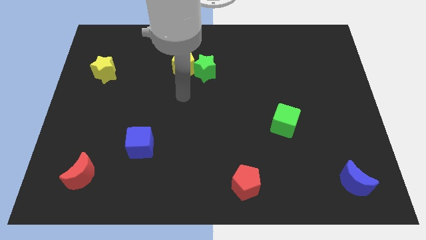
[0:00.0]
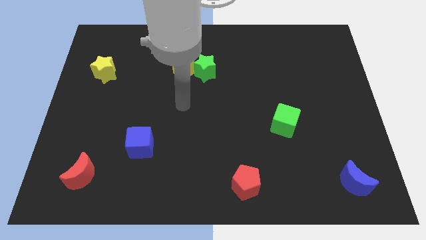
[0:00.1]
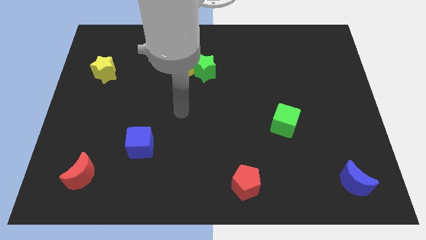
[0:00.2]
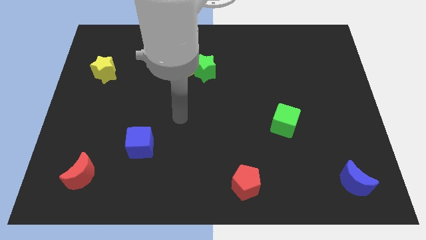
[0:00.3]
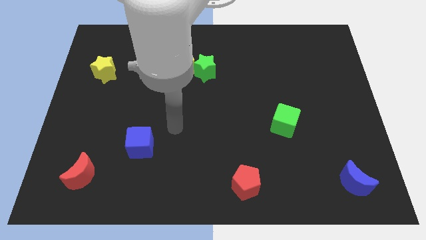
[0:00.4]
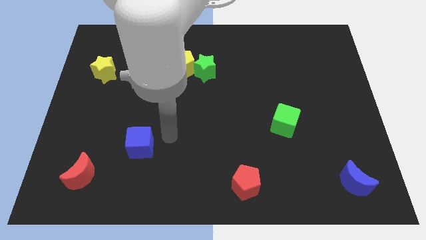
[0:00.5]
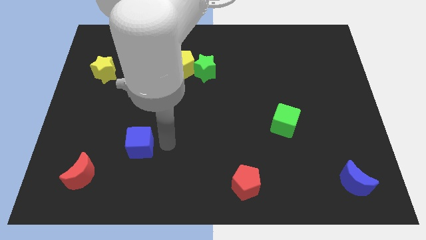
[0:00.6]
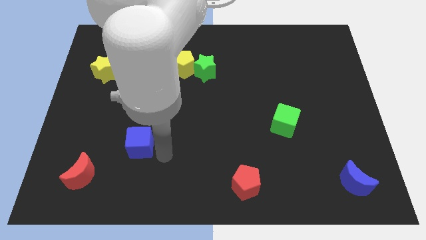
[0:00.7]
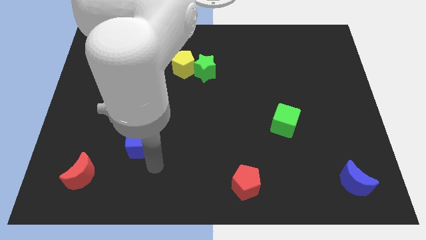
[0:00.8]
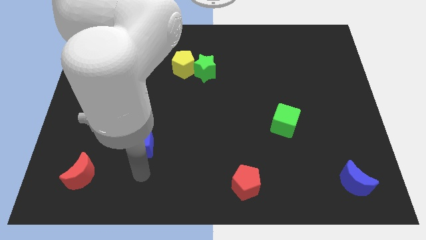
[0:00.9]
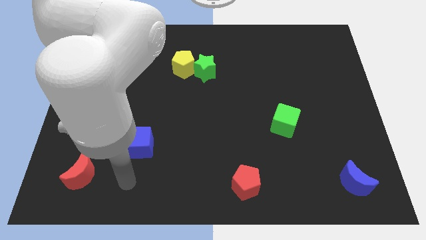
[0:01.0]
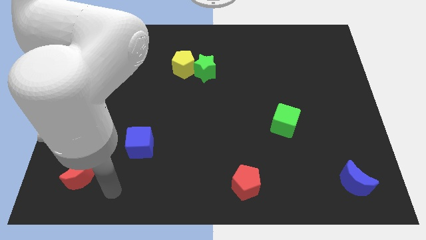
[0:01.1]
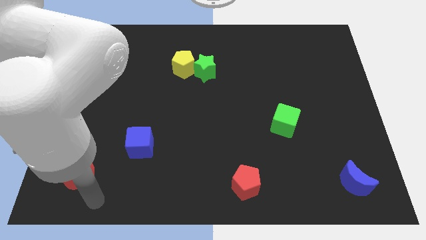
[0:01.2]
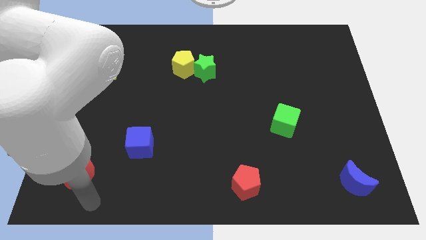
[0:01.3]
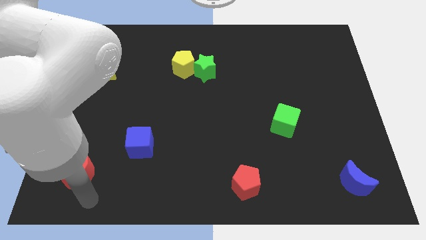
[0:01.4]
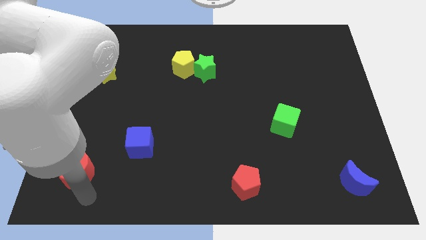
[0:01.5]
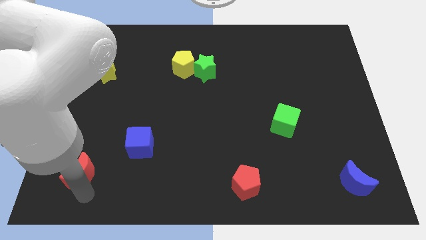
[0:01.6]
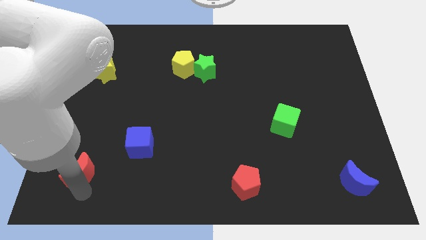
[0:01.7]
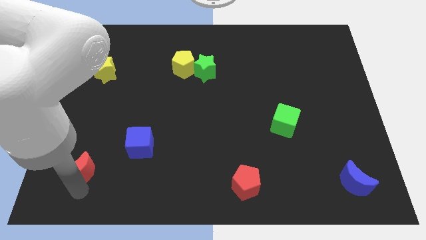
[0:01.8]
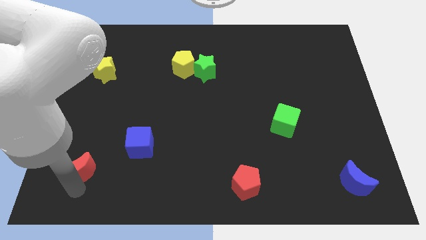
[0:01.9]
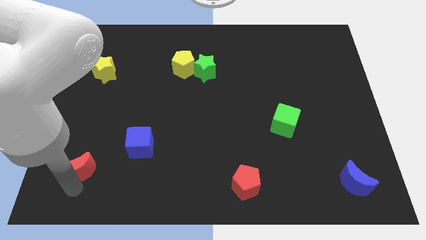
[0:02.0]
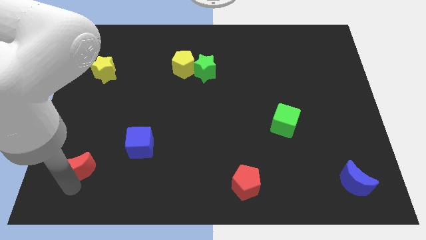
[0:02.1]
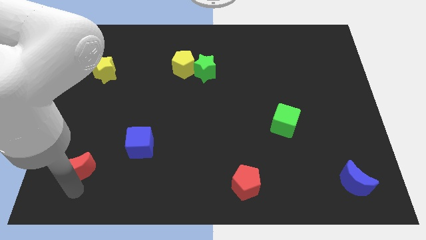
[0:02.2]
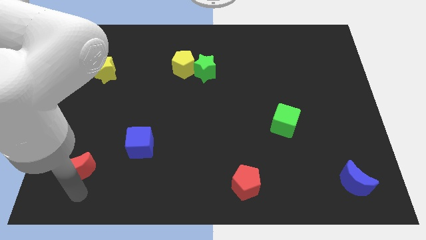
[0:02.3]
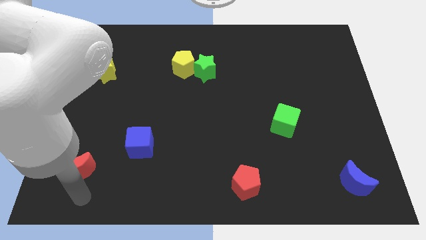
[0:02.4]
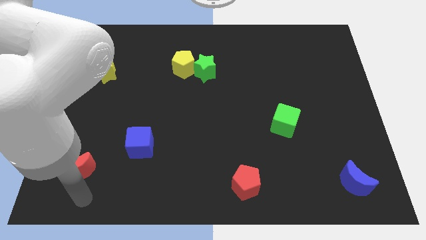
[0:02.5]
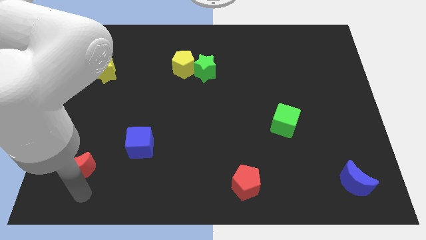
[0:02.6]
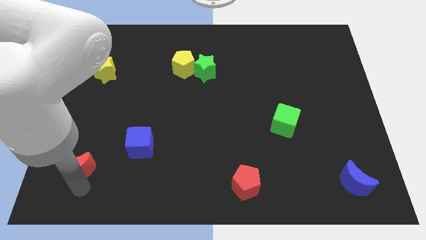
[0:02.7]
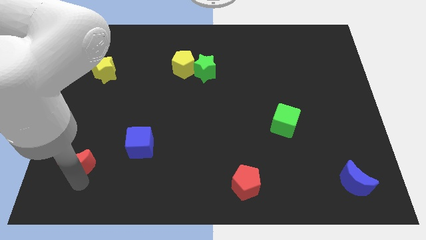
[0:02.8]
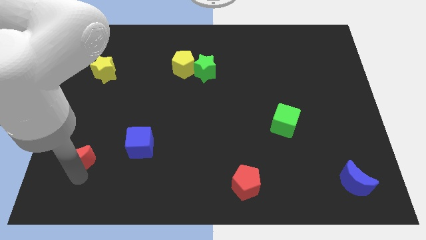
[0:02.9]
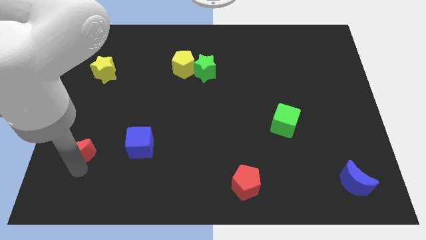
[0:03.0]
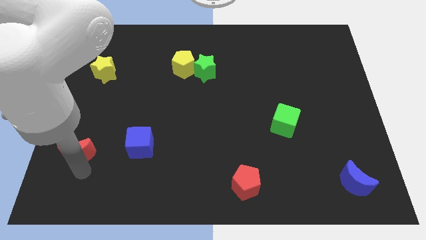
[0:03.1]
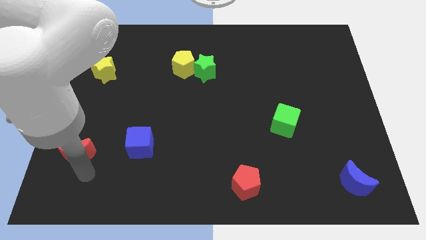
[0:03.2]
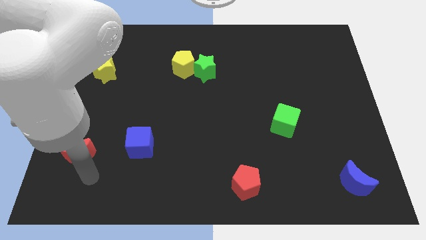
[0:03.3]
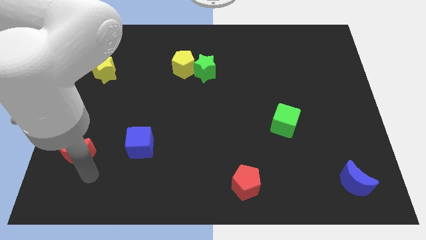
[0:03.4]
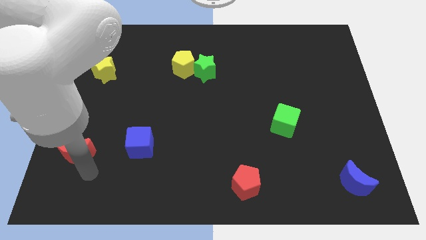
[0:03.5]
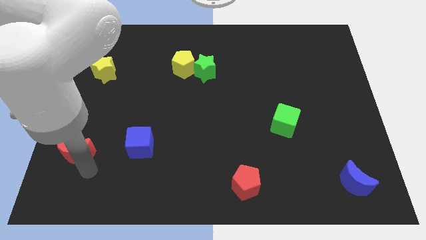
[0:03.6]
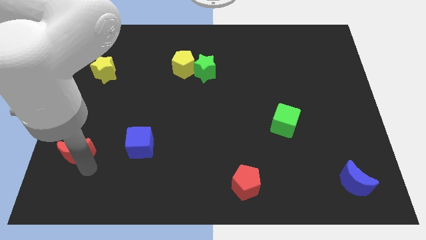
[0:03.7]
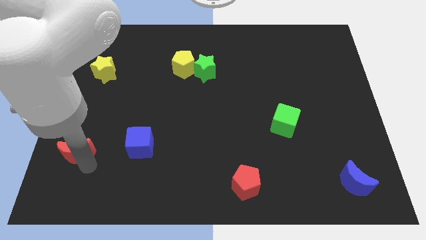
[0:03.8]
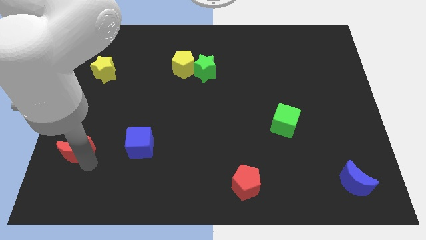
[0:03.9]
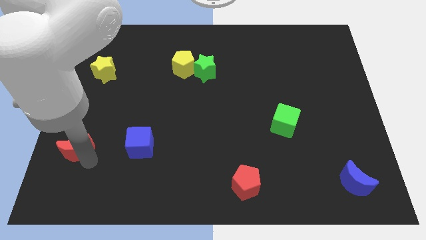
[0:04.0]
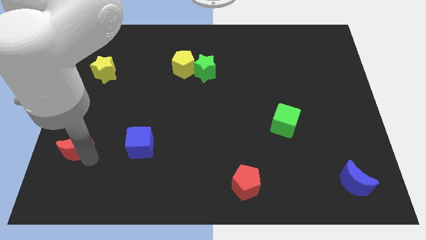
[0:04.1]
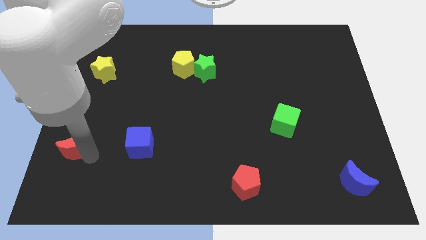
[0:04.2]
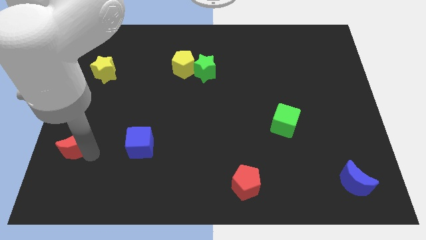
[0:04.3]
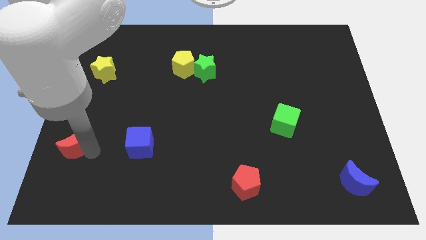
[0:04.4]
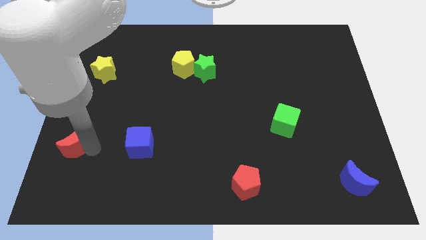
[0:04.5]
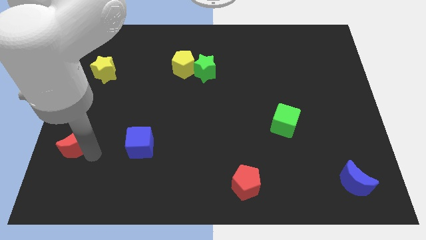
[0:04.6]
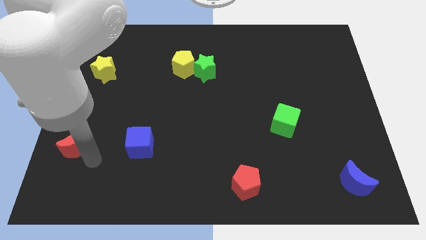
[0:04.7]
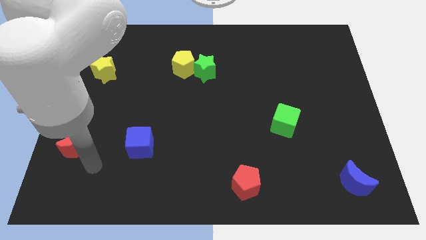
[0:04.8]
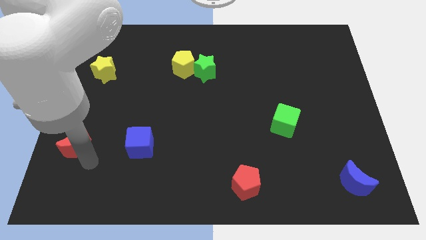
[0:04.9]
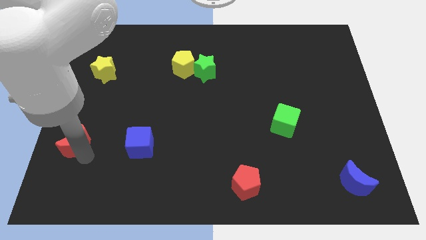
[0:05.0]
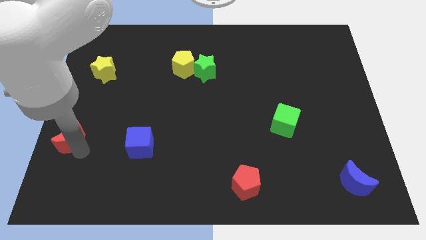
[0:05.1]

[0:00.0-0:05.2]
slide the red moon to the center left

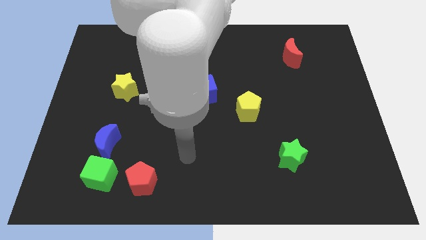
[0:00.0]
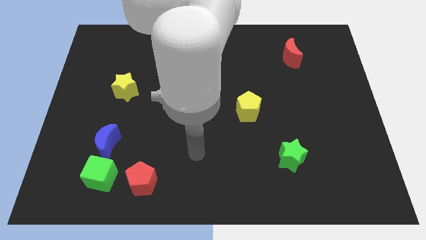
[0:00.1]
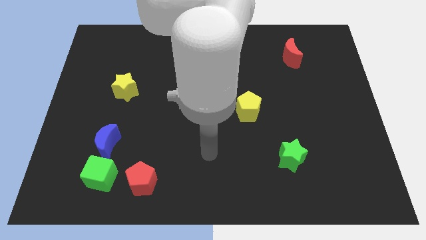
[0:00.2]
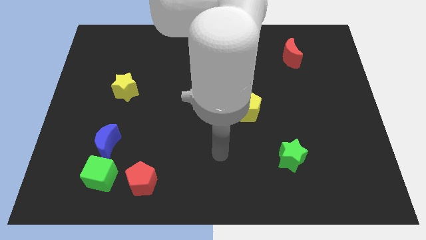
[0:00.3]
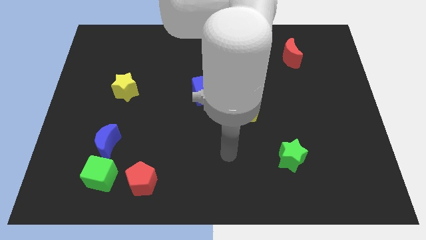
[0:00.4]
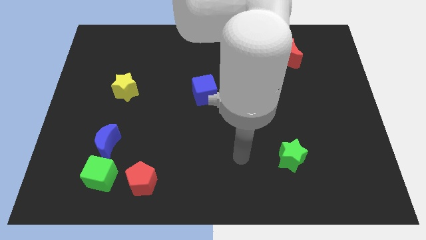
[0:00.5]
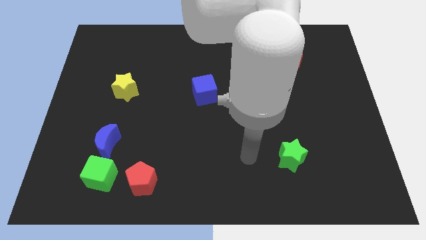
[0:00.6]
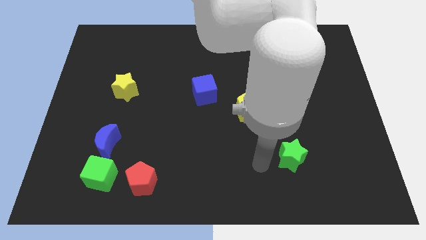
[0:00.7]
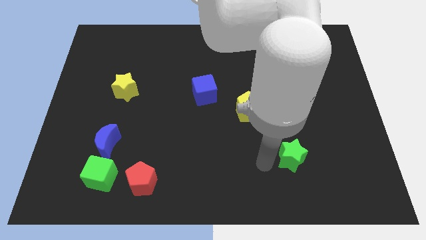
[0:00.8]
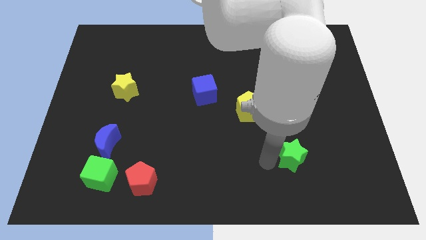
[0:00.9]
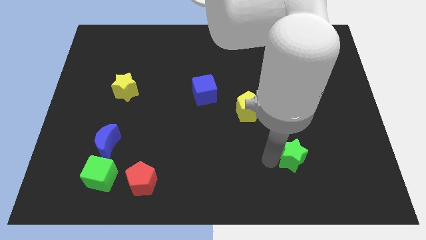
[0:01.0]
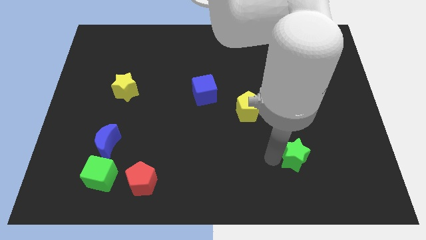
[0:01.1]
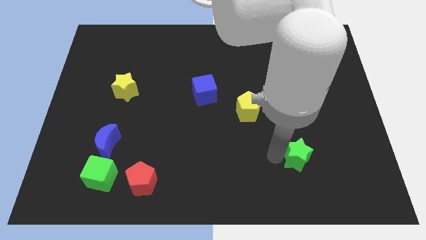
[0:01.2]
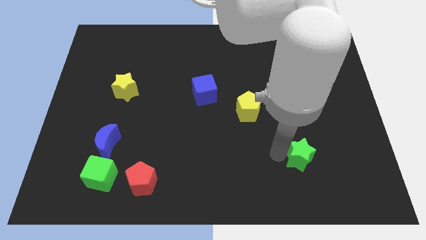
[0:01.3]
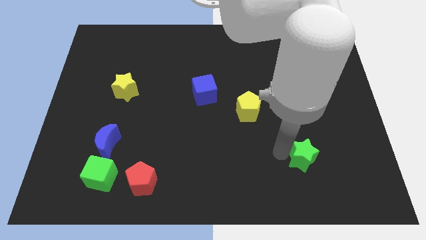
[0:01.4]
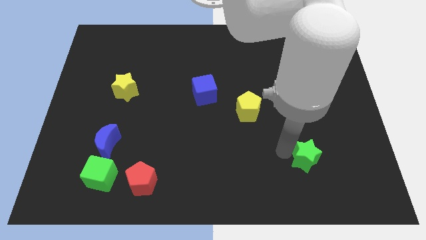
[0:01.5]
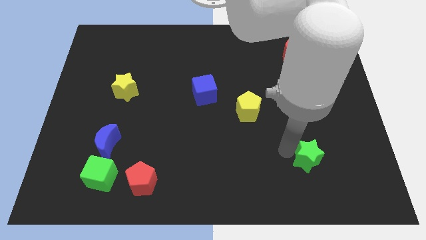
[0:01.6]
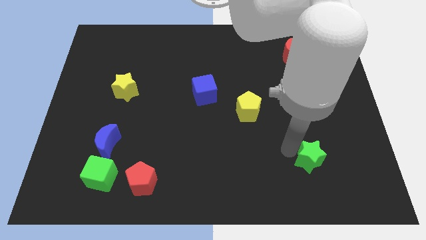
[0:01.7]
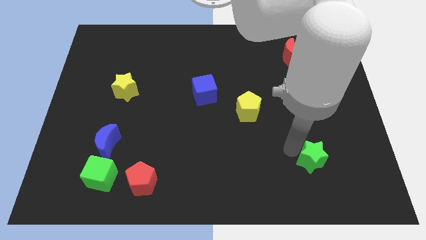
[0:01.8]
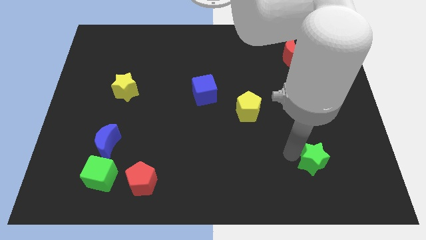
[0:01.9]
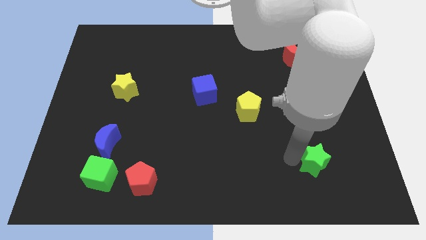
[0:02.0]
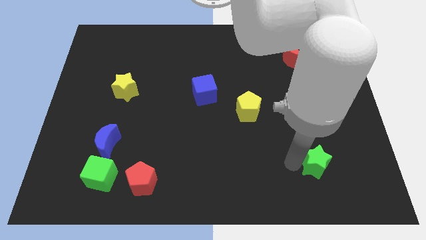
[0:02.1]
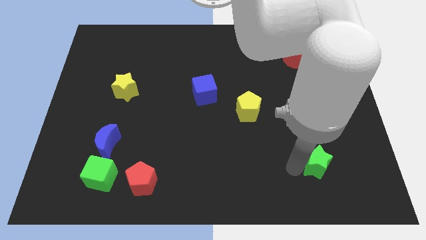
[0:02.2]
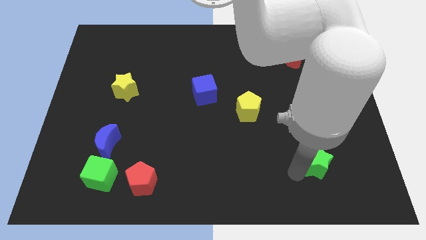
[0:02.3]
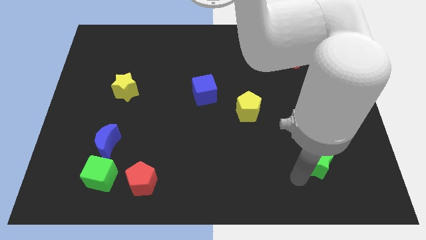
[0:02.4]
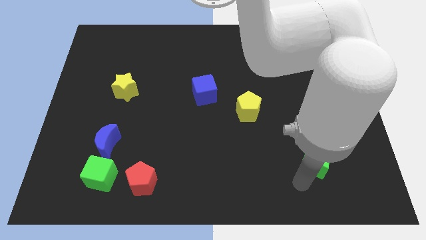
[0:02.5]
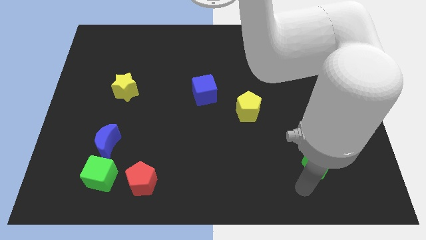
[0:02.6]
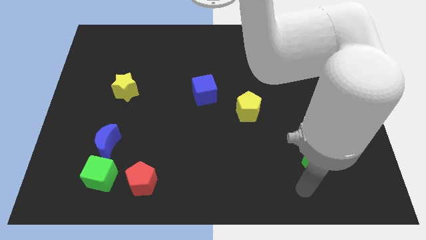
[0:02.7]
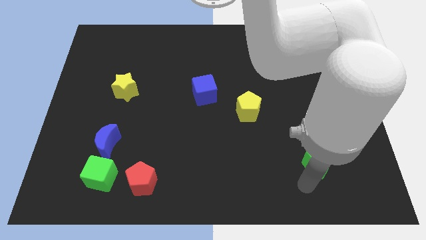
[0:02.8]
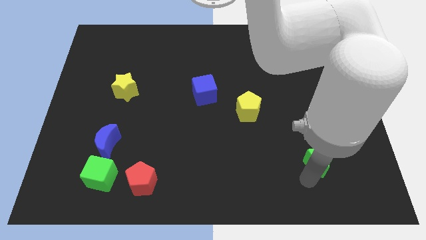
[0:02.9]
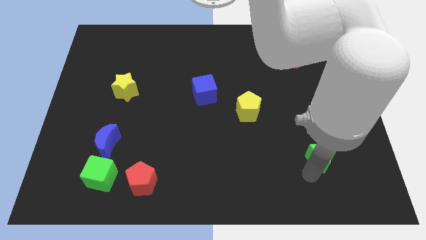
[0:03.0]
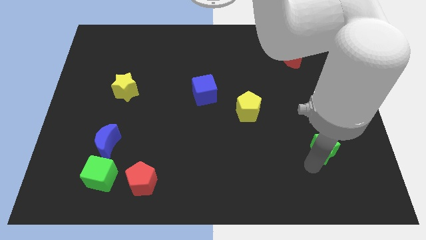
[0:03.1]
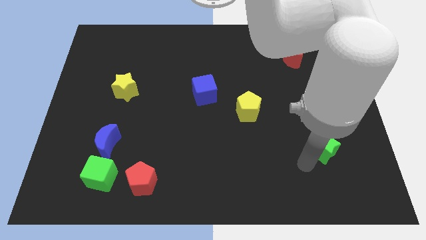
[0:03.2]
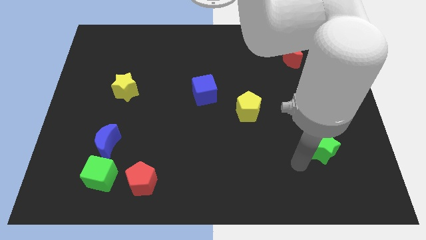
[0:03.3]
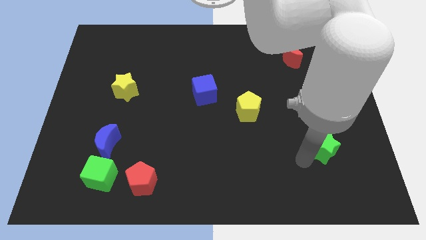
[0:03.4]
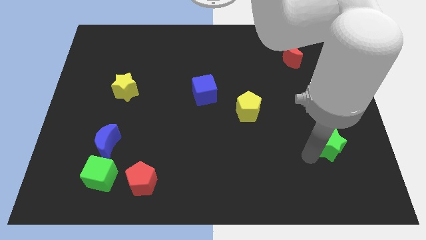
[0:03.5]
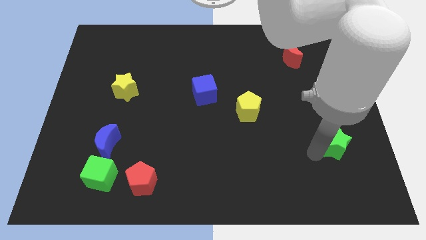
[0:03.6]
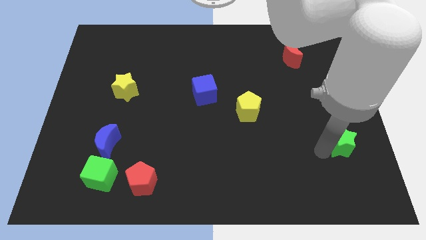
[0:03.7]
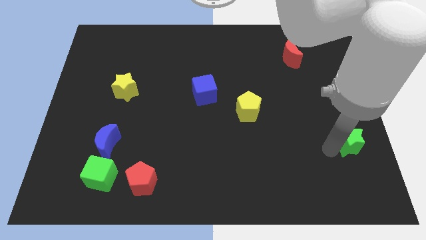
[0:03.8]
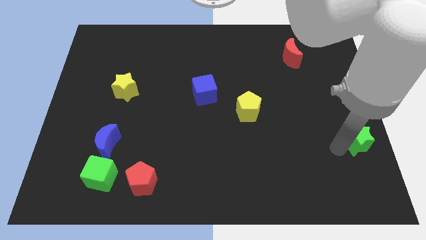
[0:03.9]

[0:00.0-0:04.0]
slide the green star to the center right
